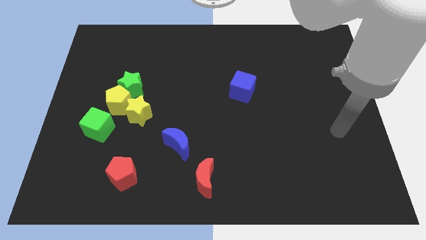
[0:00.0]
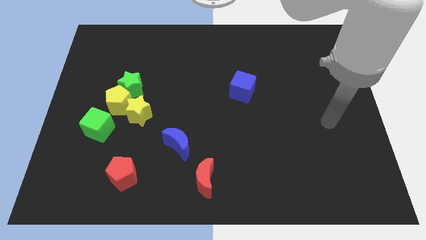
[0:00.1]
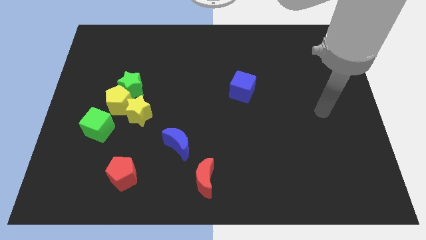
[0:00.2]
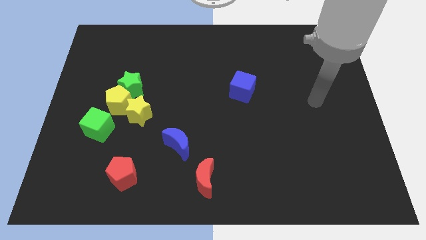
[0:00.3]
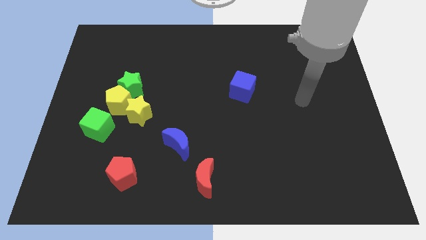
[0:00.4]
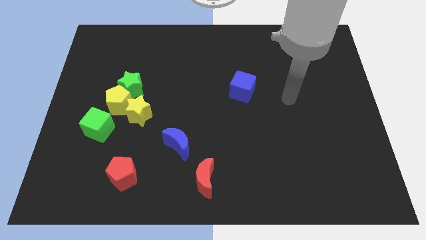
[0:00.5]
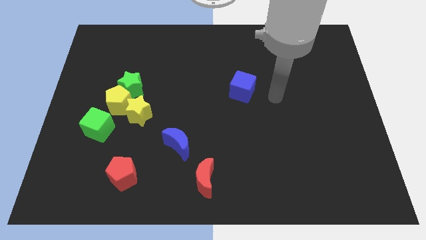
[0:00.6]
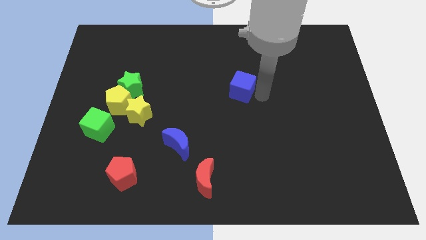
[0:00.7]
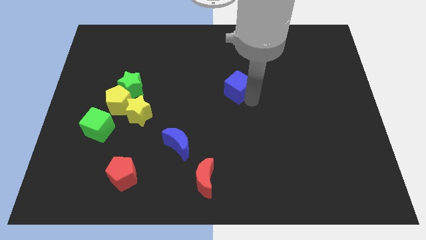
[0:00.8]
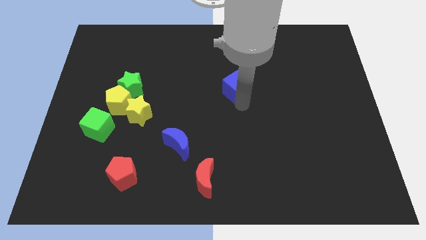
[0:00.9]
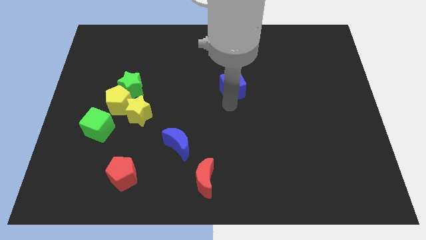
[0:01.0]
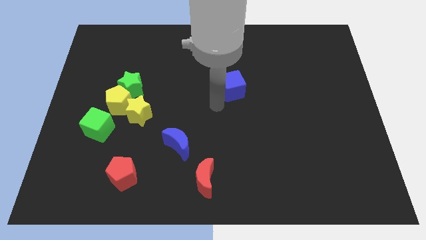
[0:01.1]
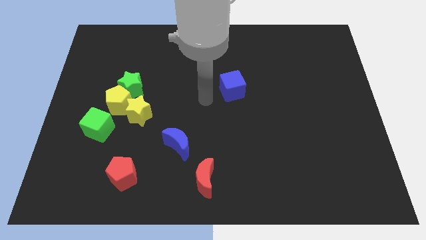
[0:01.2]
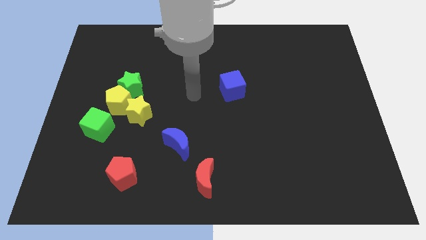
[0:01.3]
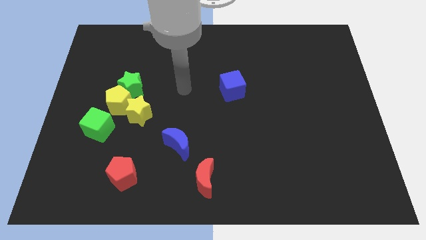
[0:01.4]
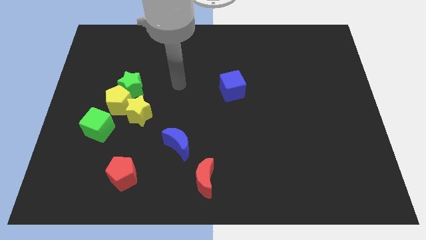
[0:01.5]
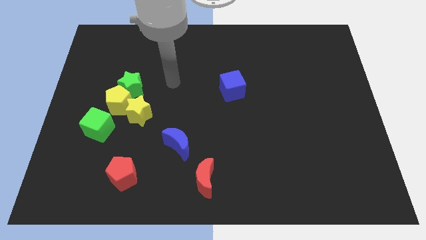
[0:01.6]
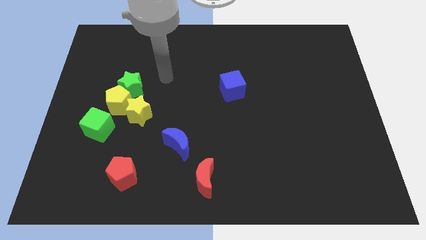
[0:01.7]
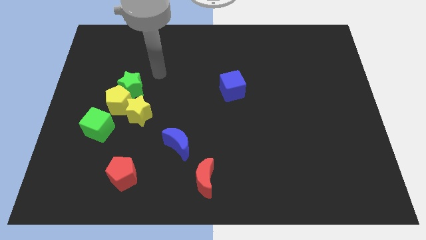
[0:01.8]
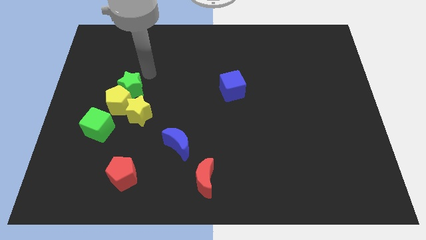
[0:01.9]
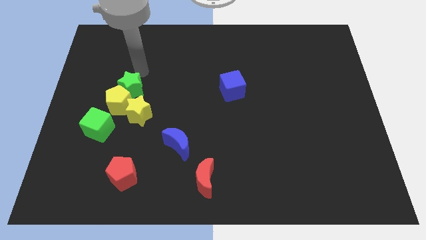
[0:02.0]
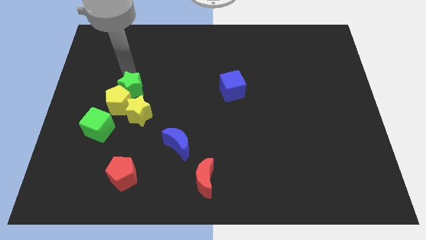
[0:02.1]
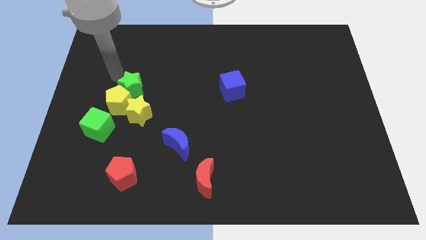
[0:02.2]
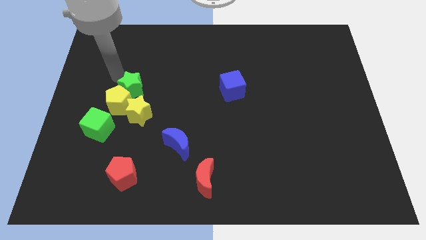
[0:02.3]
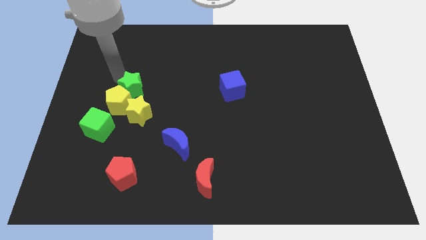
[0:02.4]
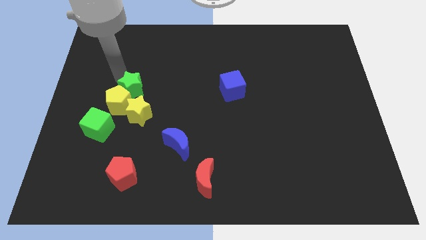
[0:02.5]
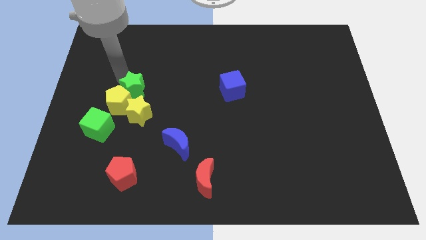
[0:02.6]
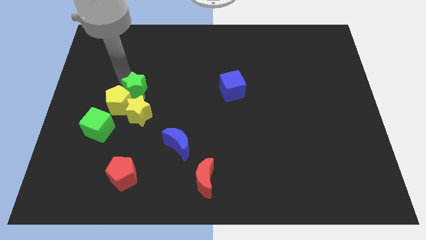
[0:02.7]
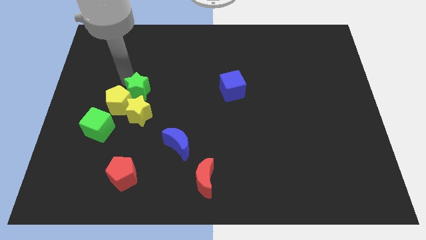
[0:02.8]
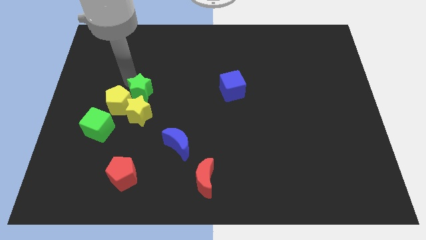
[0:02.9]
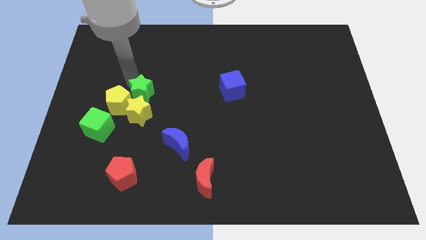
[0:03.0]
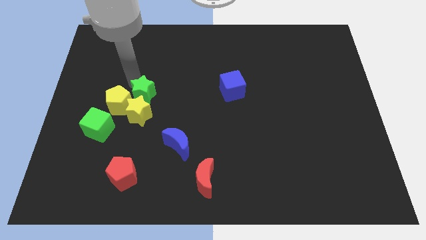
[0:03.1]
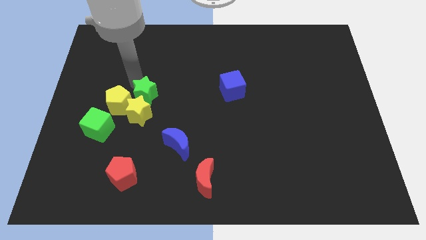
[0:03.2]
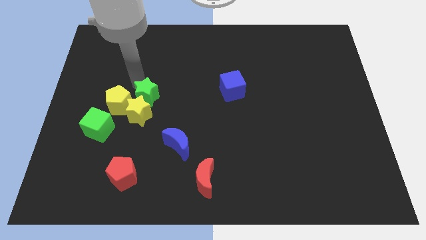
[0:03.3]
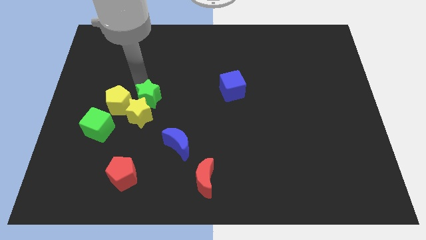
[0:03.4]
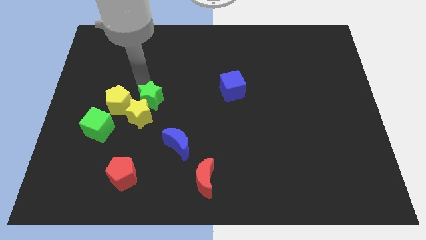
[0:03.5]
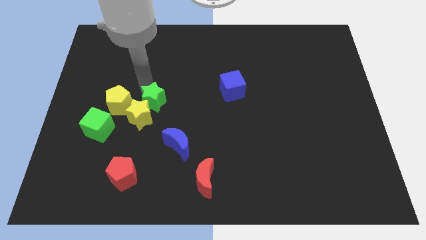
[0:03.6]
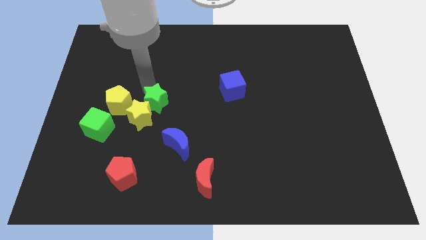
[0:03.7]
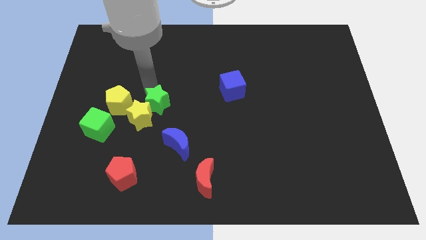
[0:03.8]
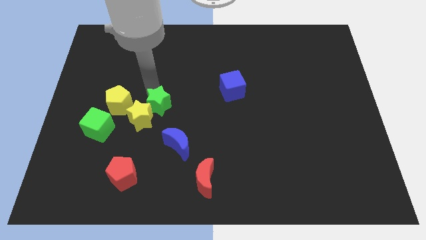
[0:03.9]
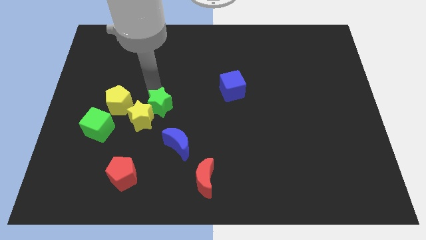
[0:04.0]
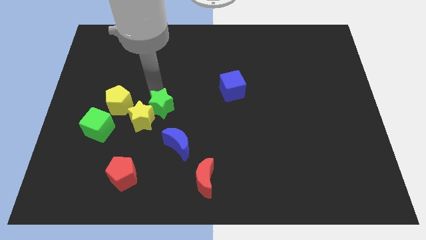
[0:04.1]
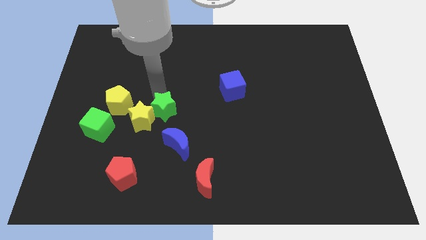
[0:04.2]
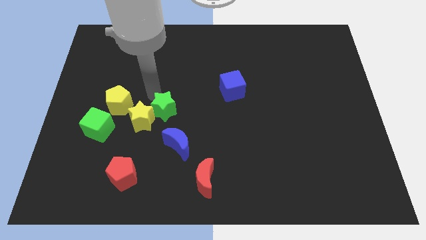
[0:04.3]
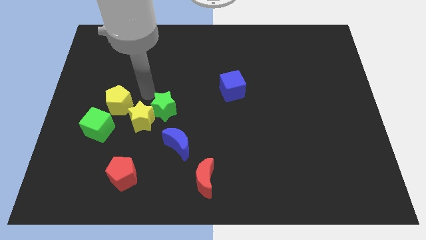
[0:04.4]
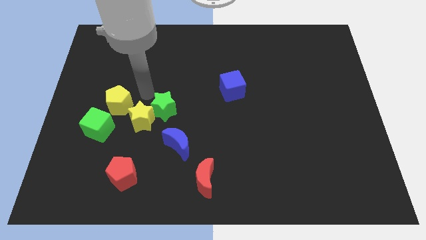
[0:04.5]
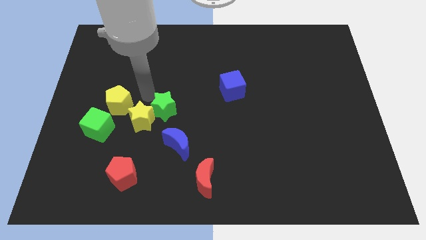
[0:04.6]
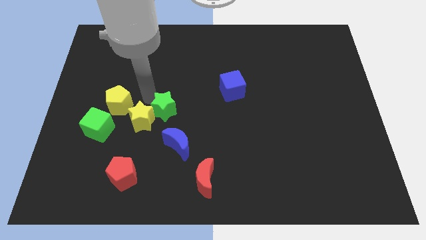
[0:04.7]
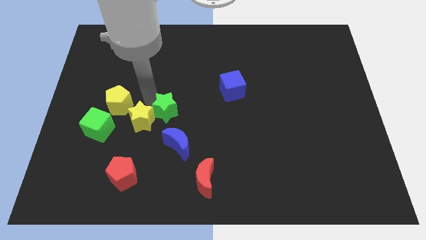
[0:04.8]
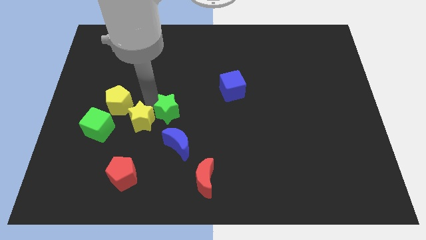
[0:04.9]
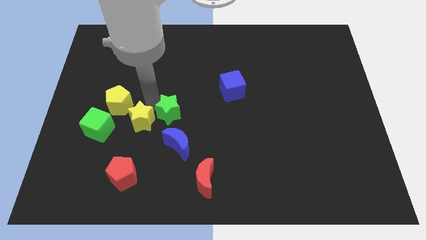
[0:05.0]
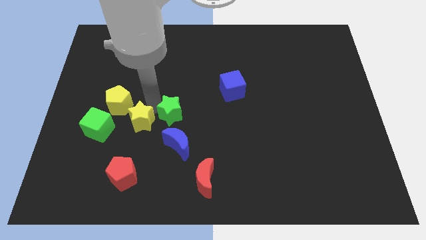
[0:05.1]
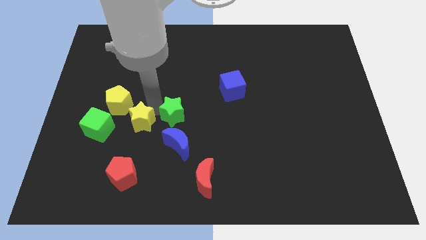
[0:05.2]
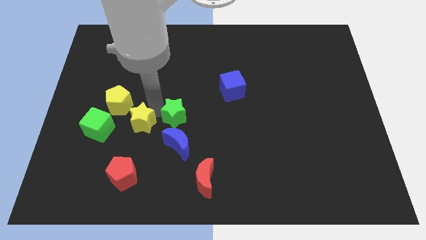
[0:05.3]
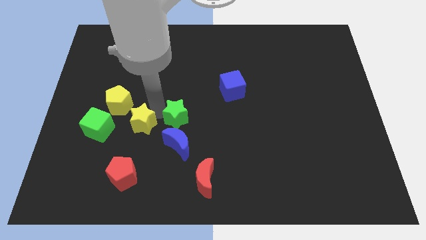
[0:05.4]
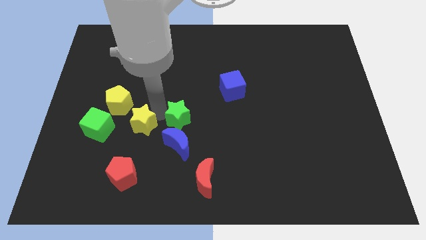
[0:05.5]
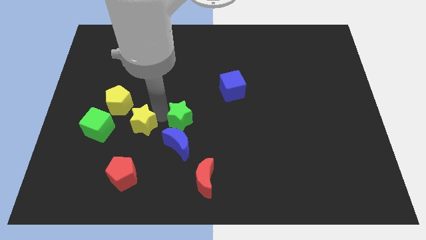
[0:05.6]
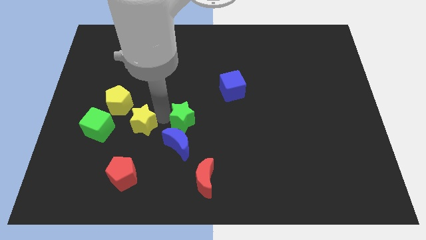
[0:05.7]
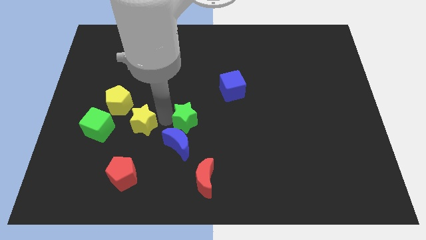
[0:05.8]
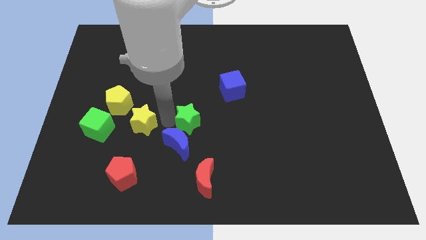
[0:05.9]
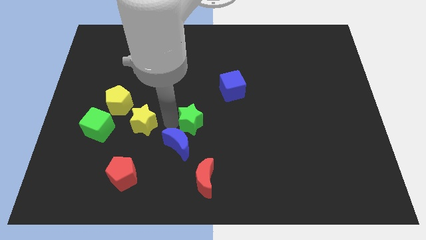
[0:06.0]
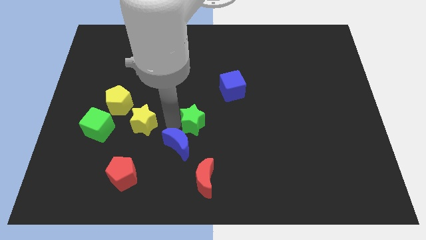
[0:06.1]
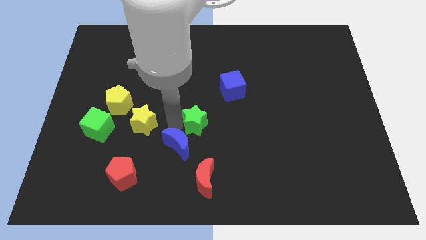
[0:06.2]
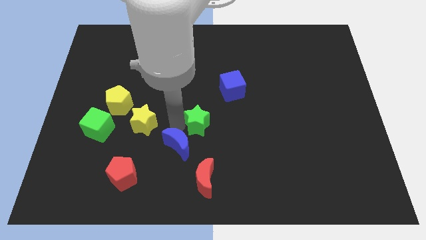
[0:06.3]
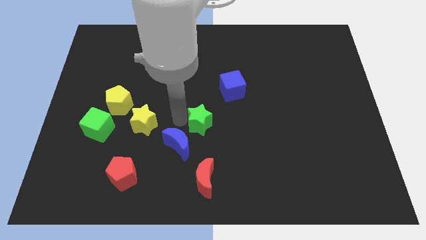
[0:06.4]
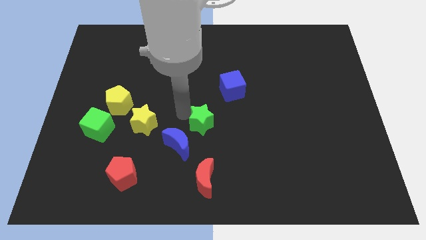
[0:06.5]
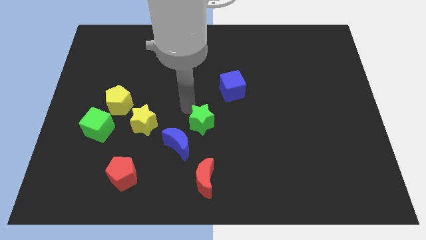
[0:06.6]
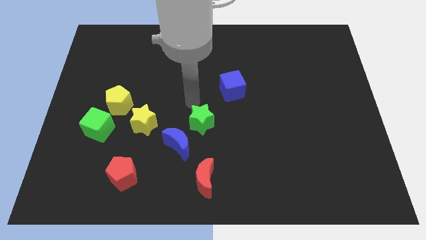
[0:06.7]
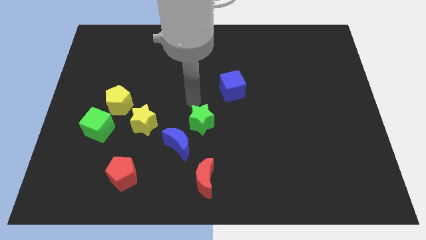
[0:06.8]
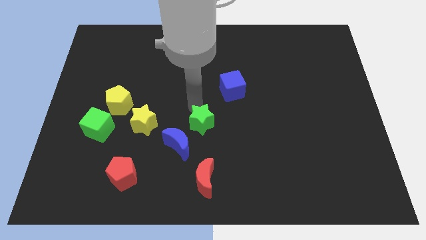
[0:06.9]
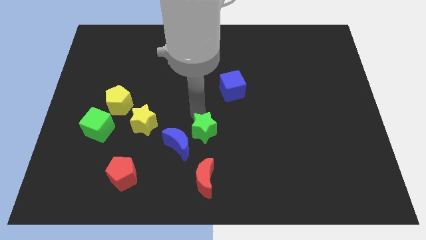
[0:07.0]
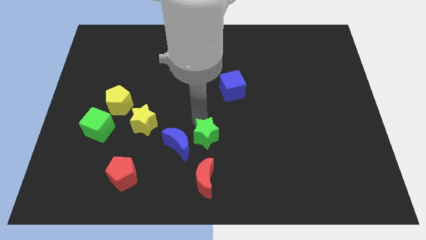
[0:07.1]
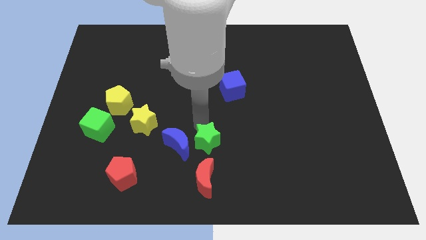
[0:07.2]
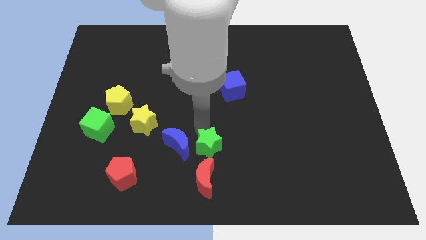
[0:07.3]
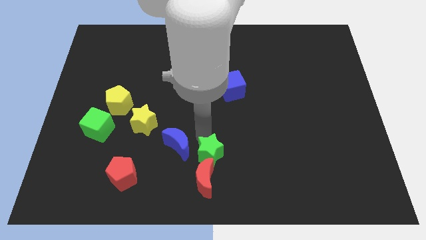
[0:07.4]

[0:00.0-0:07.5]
move the green star to the bottom
